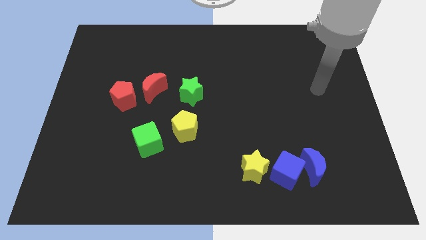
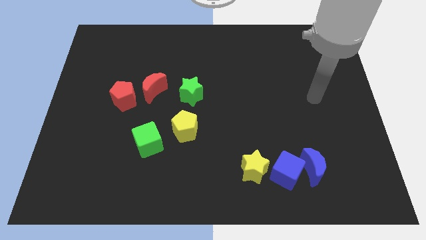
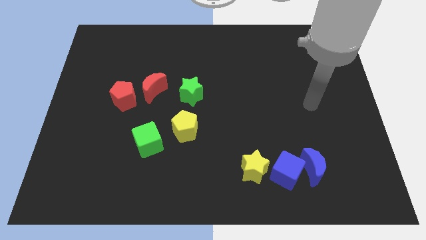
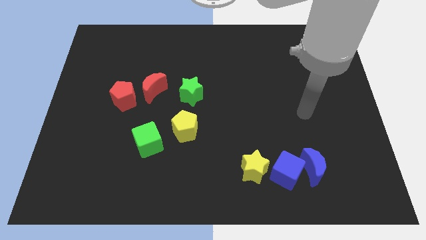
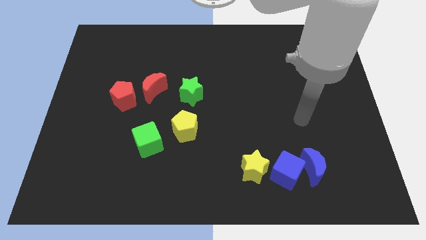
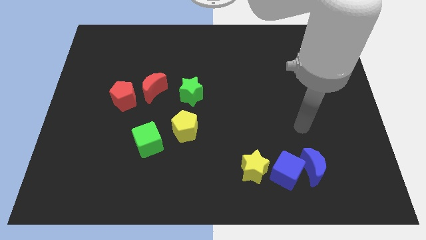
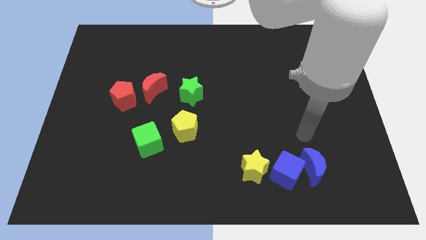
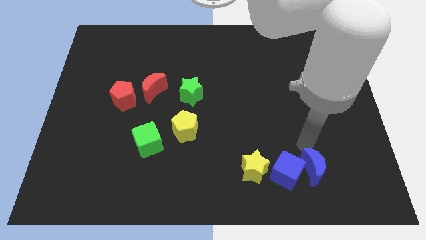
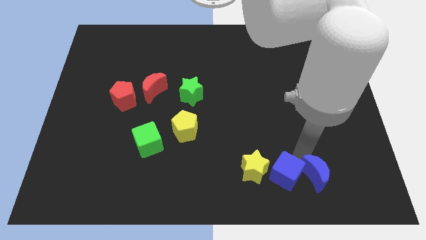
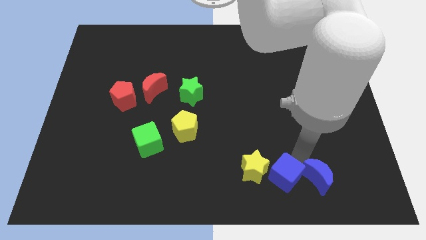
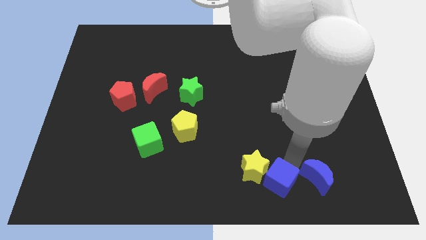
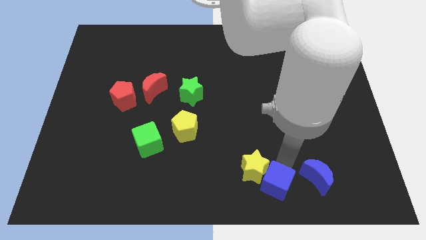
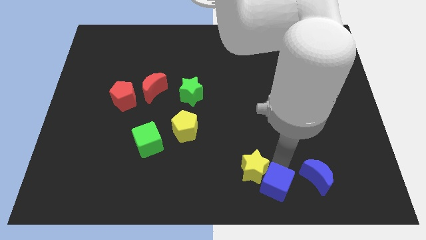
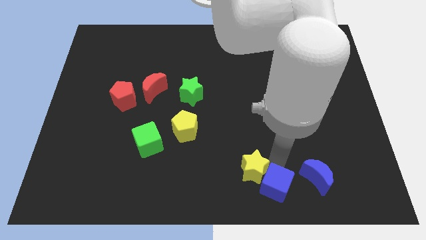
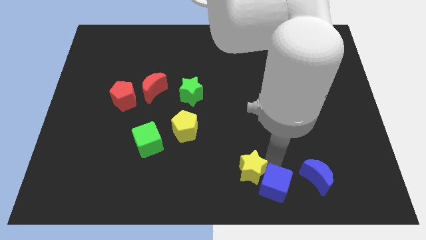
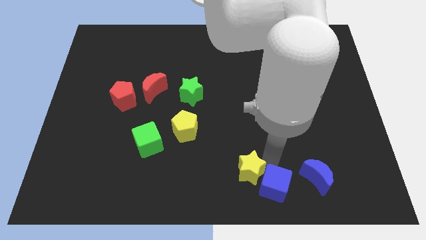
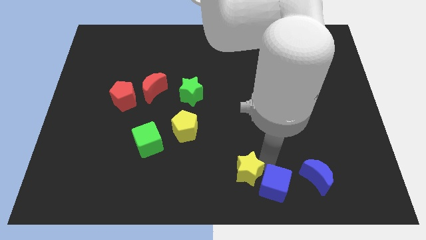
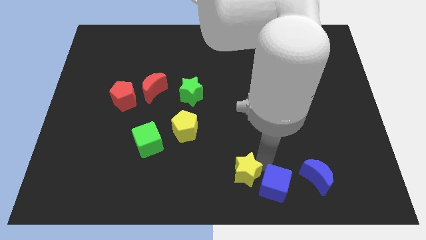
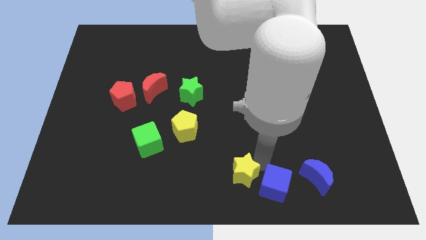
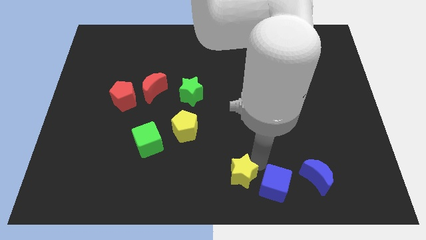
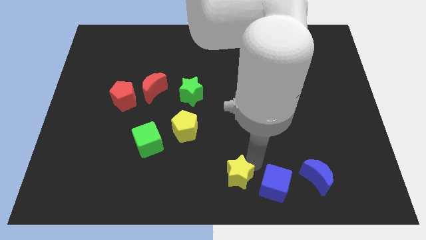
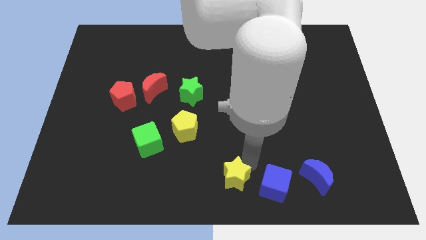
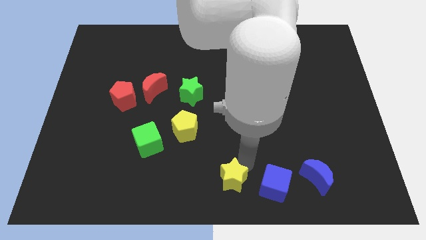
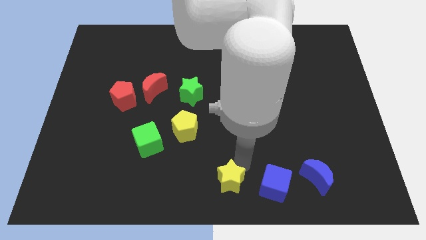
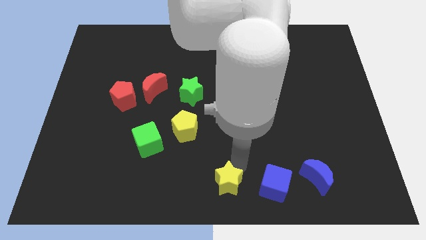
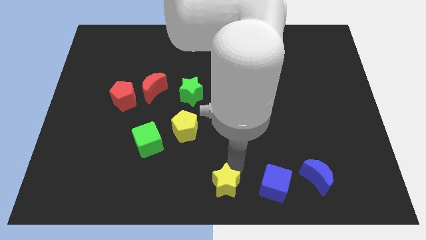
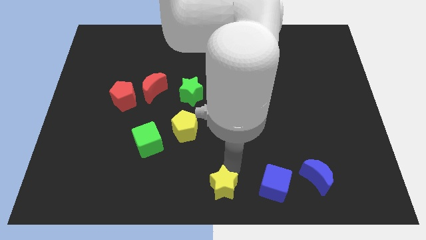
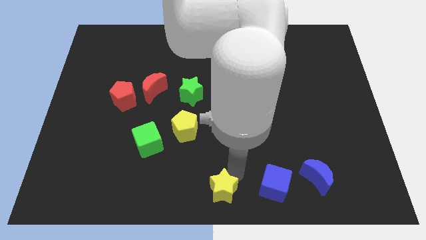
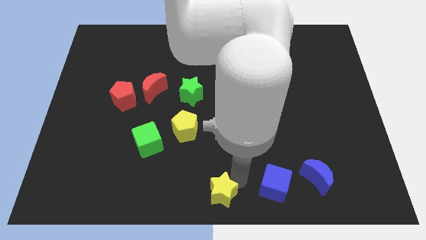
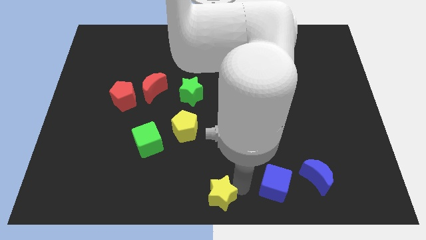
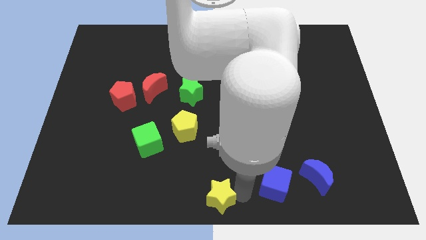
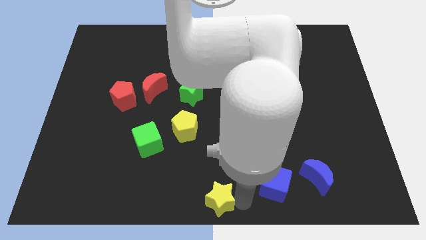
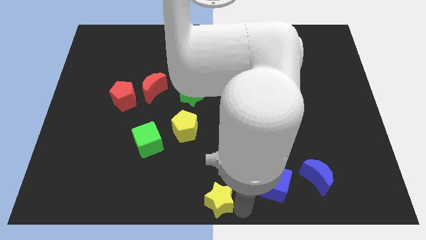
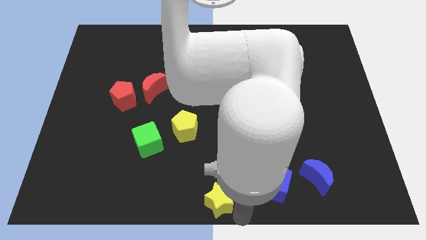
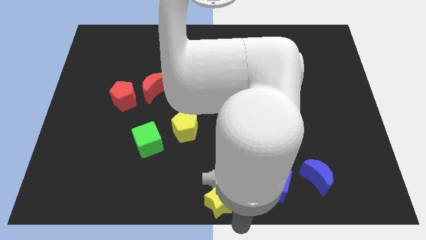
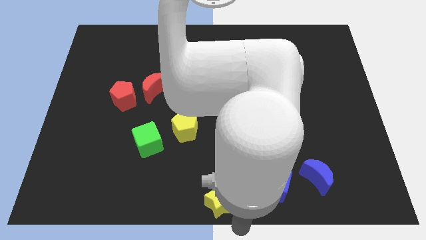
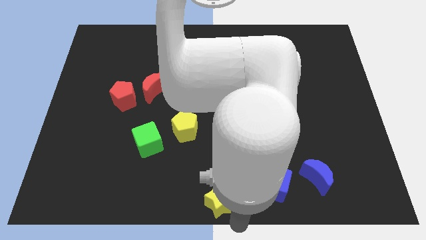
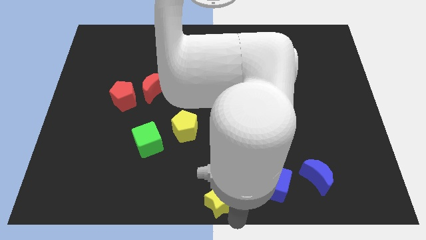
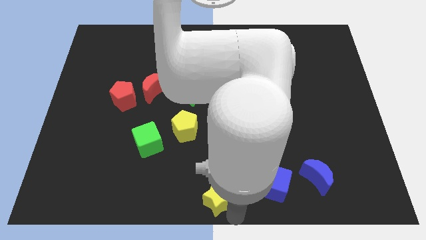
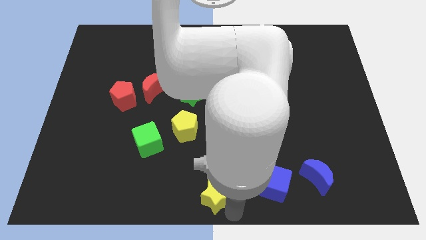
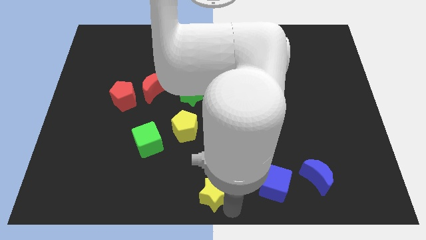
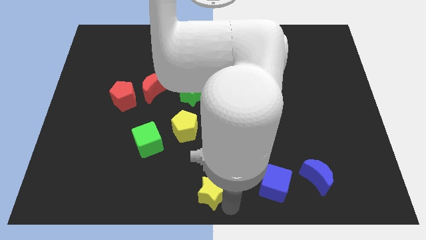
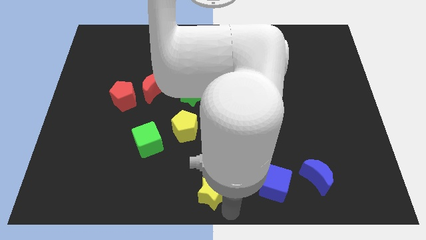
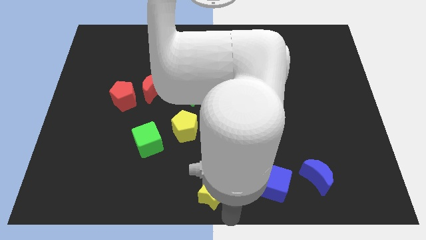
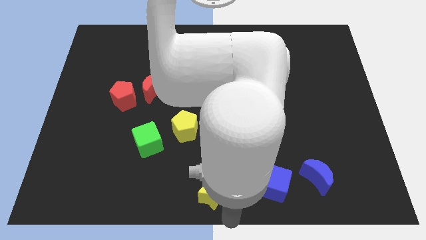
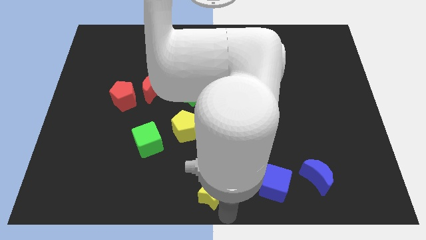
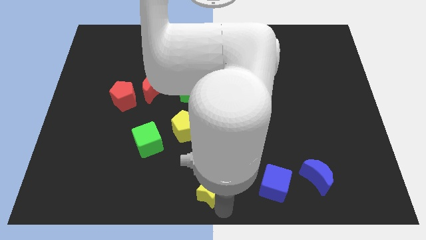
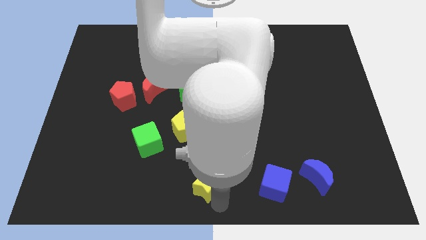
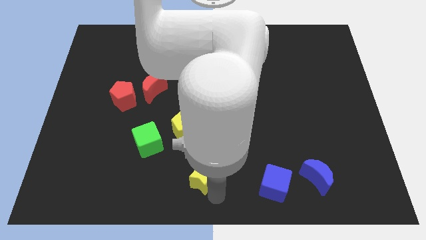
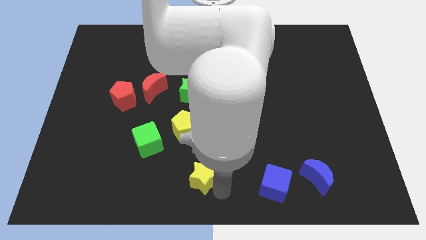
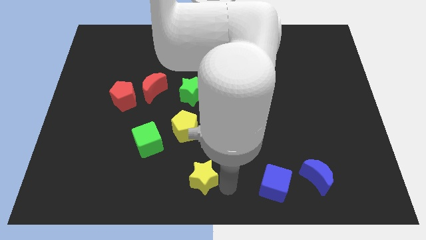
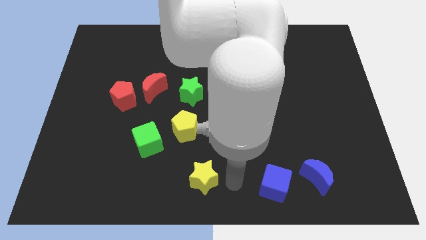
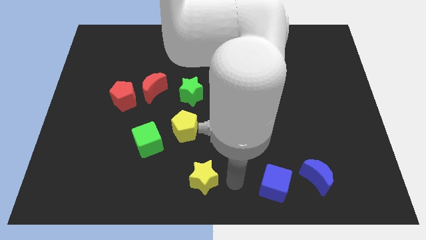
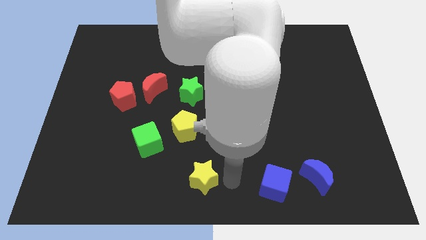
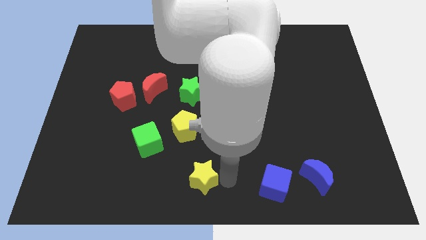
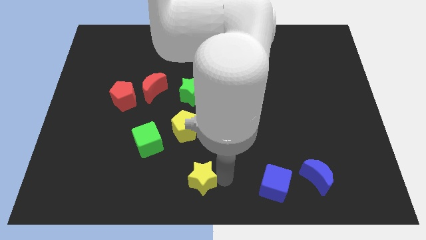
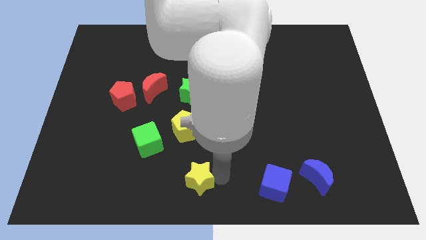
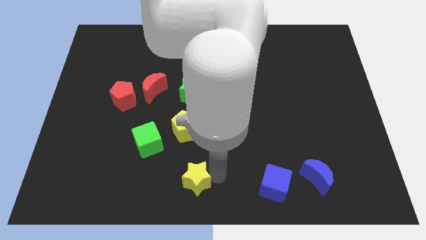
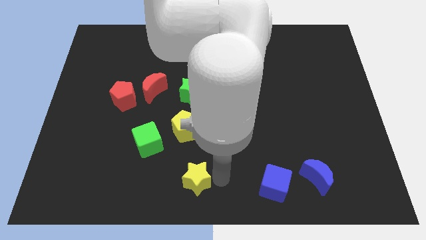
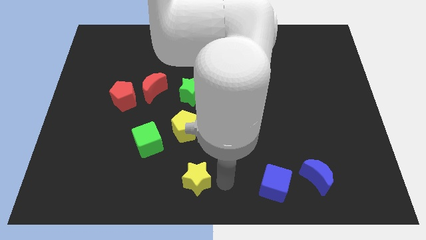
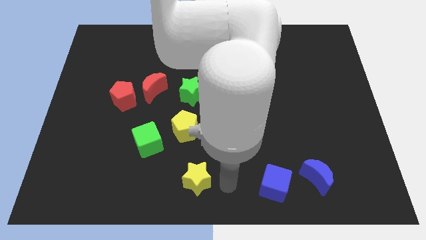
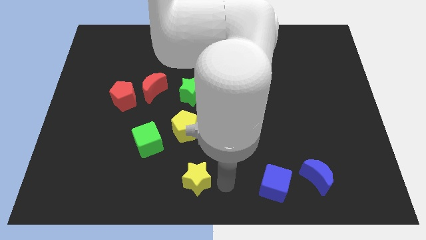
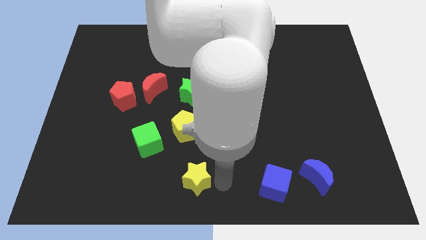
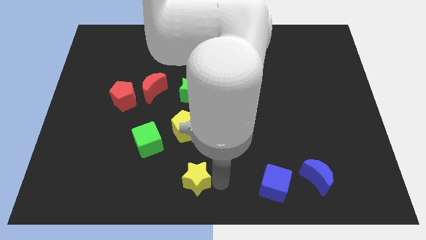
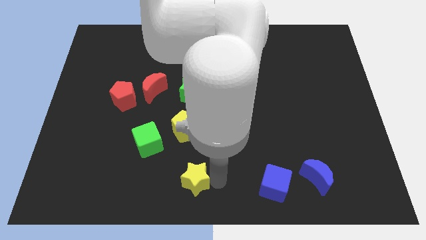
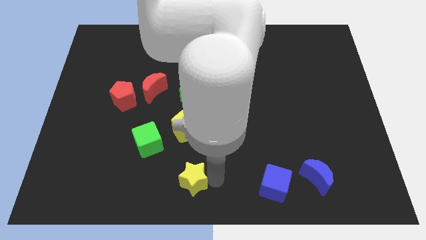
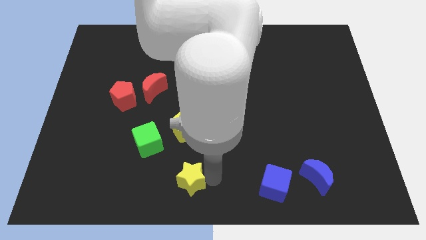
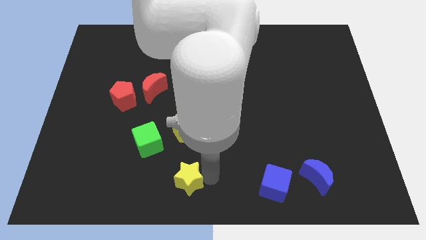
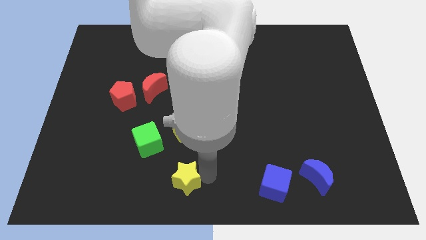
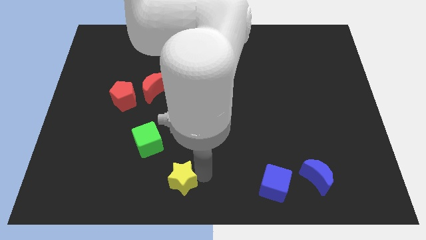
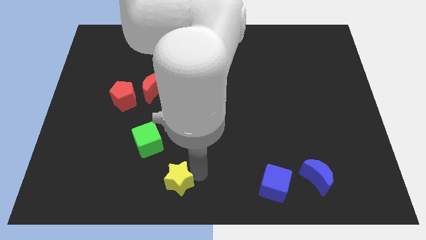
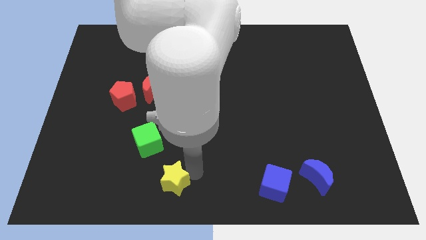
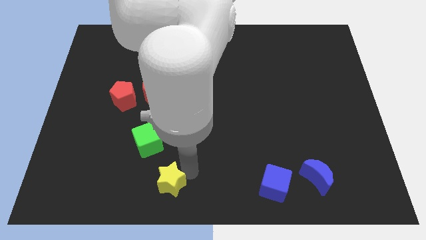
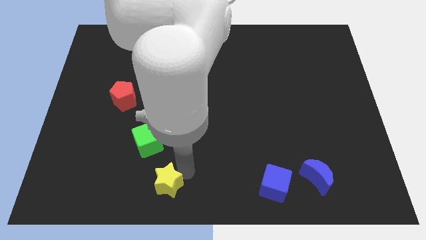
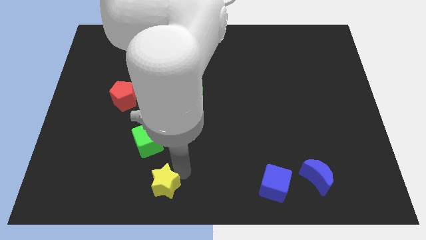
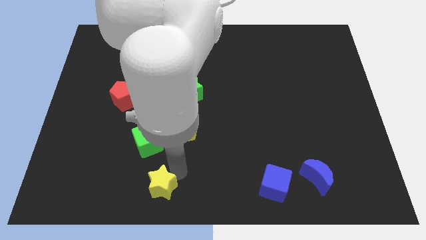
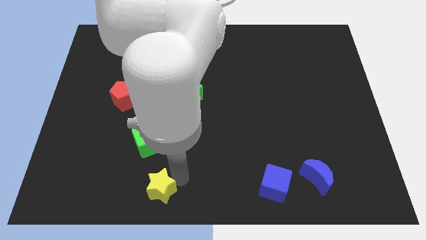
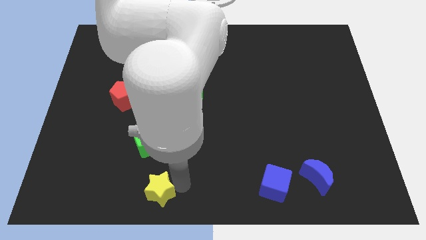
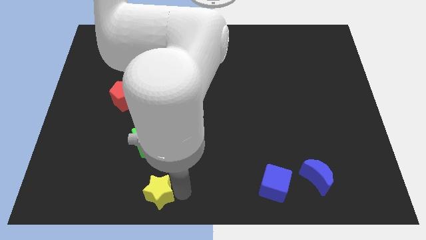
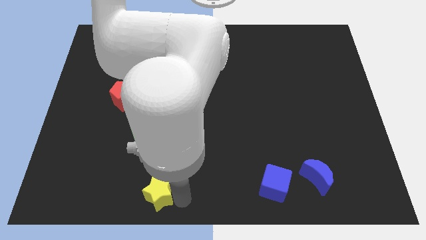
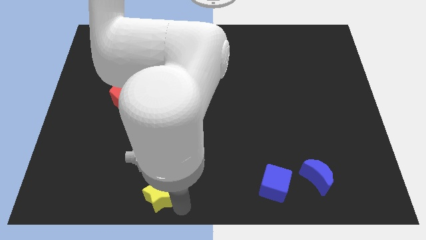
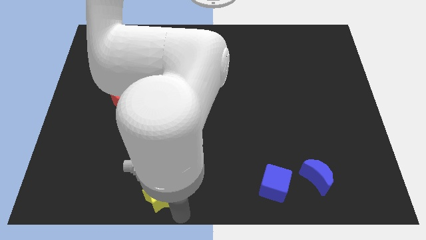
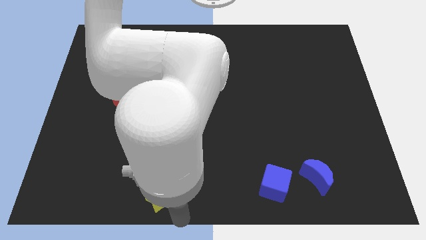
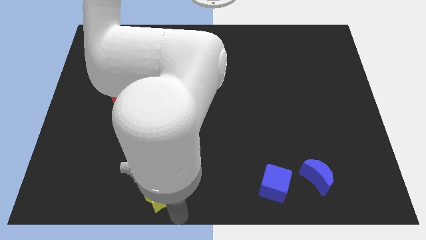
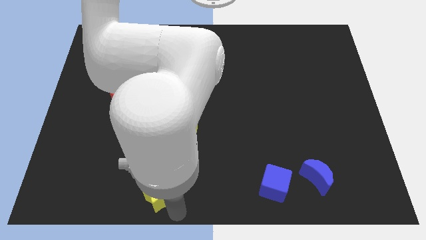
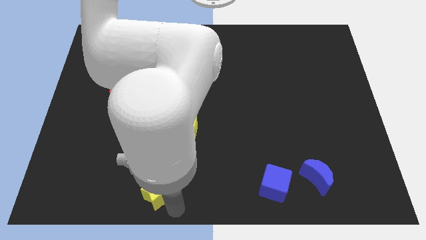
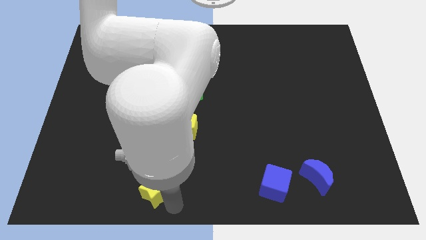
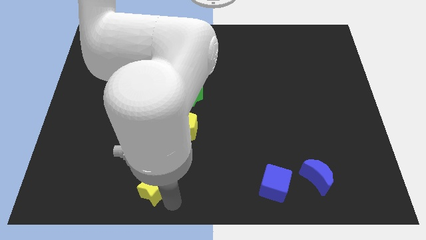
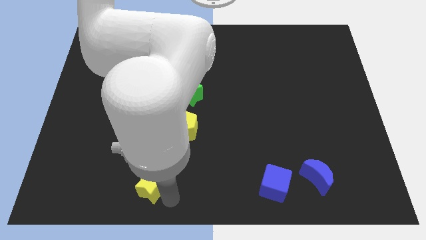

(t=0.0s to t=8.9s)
slide the yellow star left
